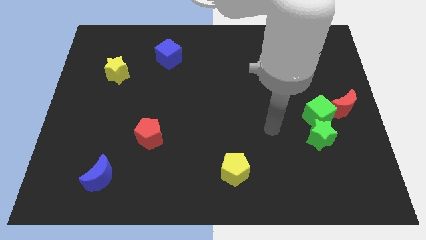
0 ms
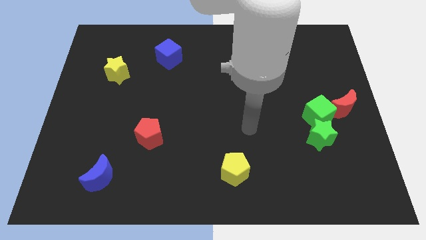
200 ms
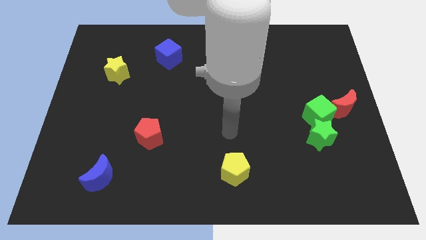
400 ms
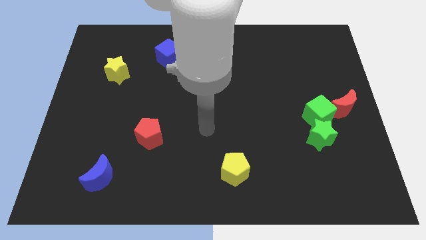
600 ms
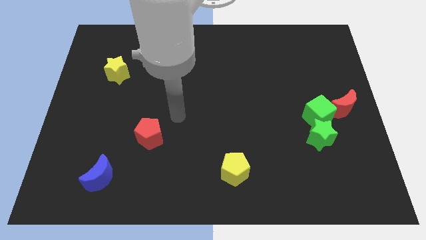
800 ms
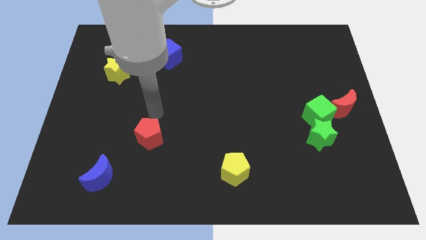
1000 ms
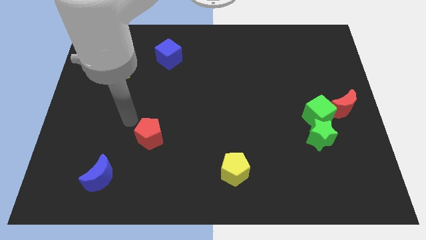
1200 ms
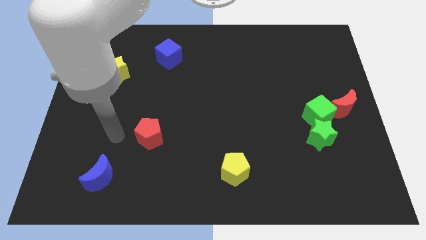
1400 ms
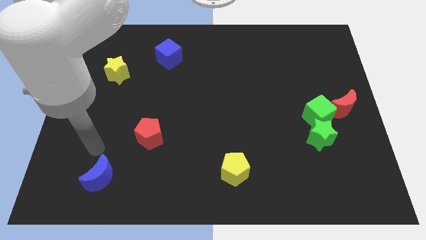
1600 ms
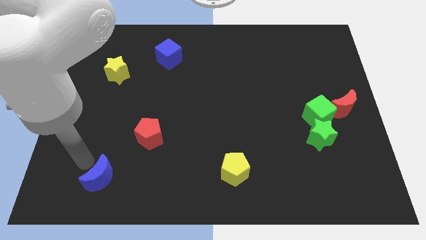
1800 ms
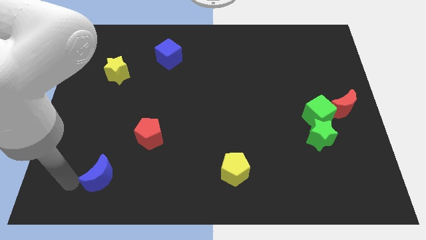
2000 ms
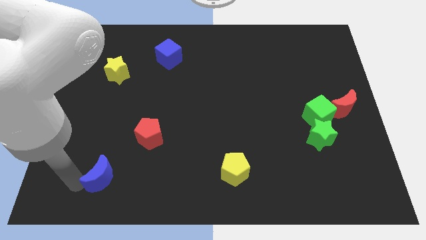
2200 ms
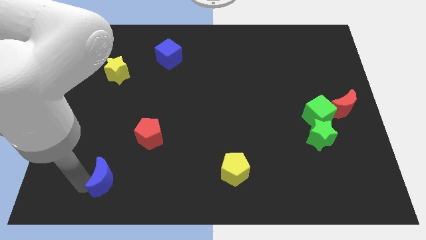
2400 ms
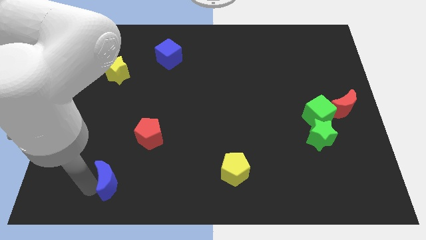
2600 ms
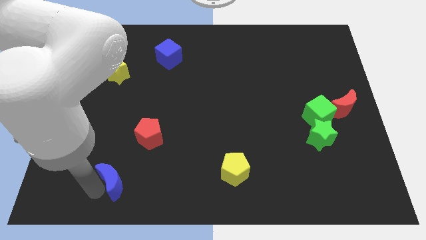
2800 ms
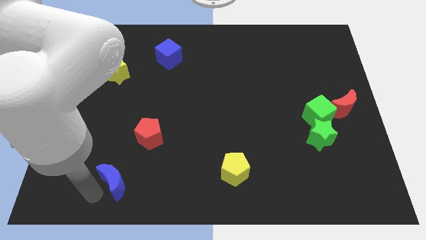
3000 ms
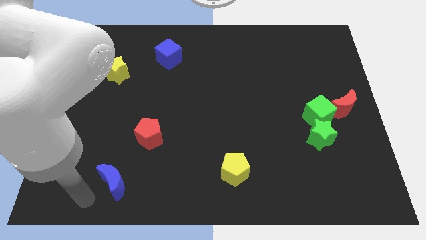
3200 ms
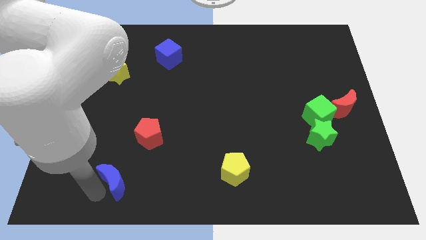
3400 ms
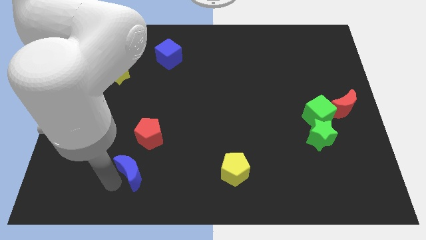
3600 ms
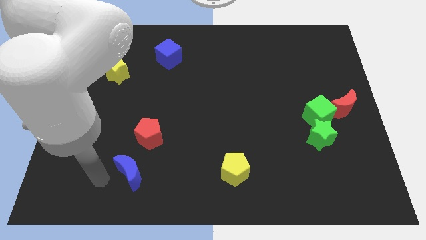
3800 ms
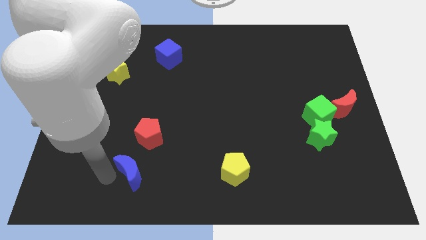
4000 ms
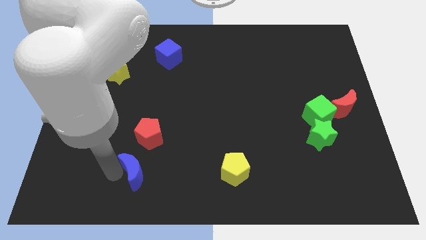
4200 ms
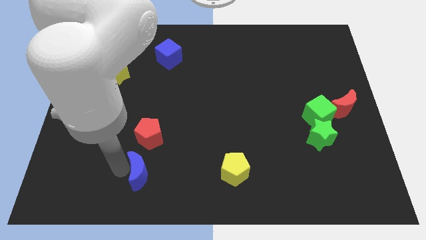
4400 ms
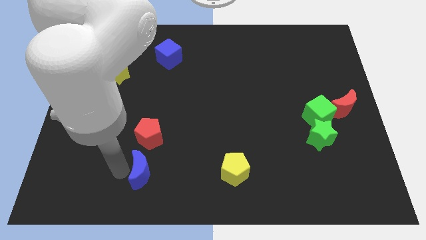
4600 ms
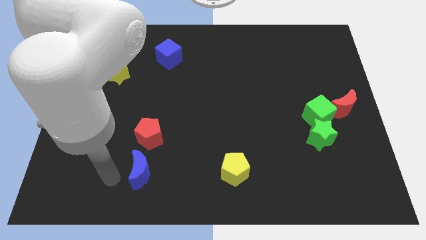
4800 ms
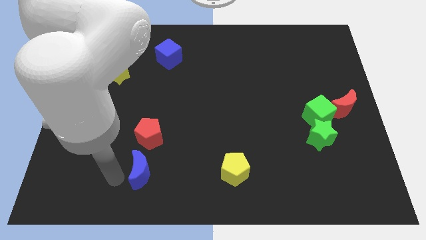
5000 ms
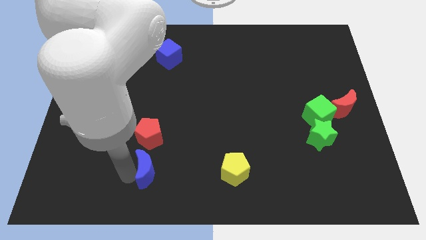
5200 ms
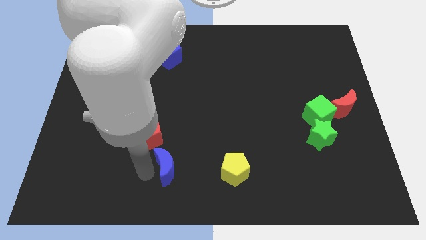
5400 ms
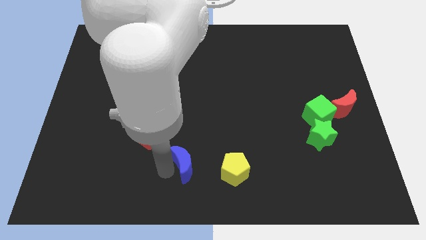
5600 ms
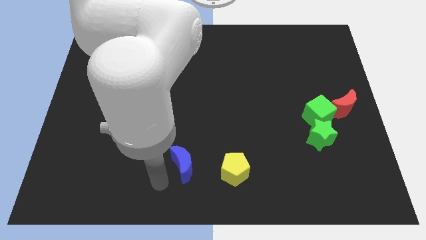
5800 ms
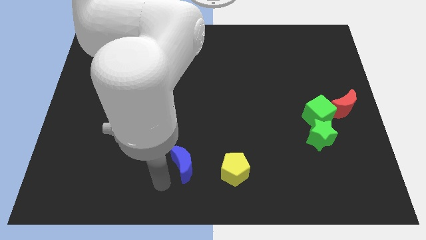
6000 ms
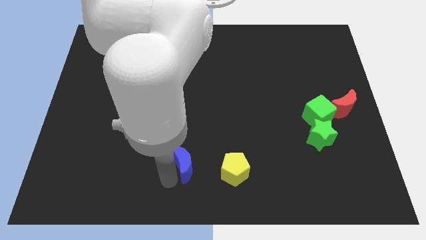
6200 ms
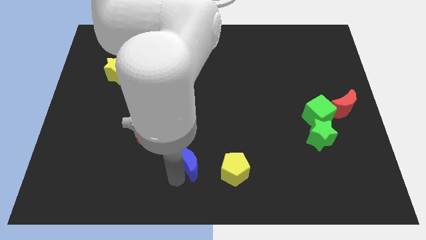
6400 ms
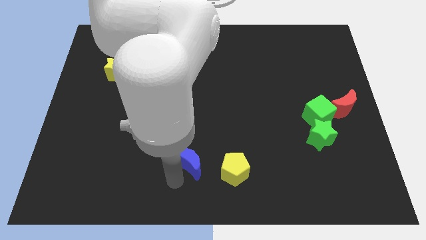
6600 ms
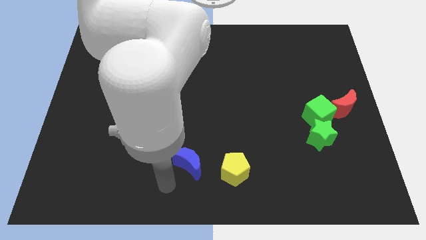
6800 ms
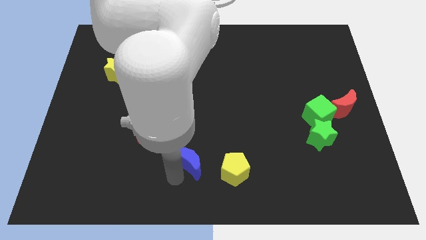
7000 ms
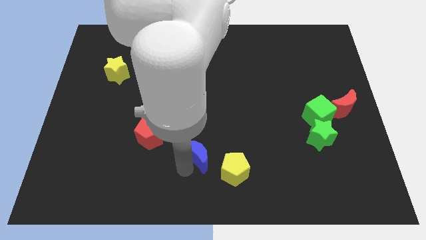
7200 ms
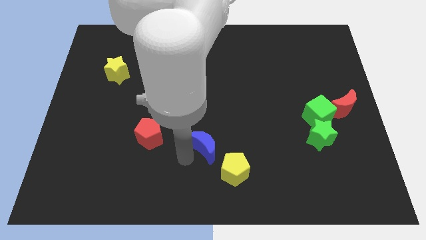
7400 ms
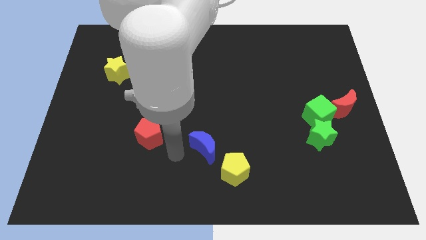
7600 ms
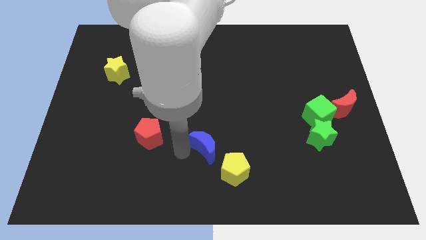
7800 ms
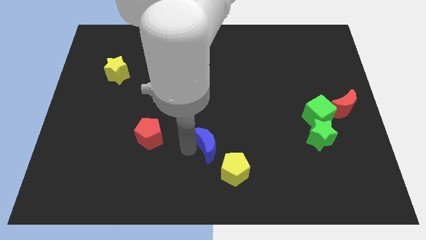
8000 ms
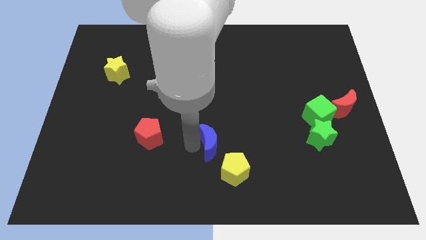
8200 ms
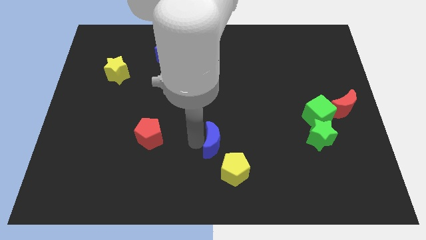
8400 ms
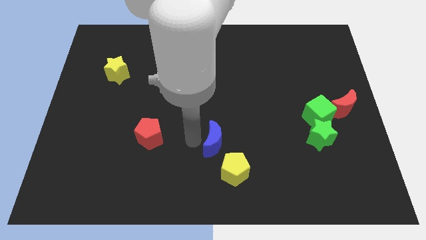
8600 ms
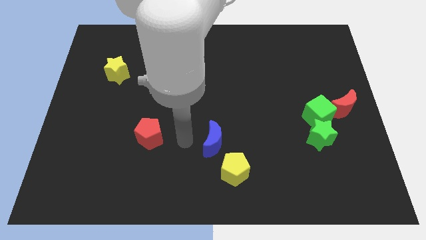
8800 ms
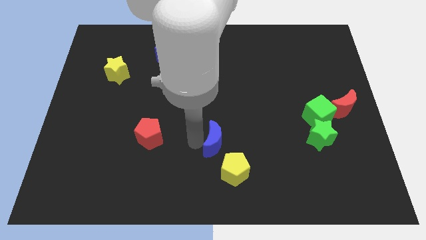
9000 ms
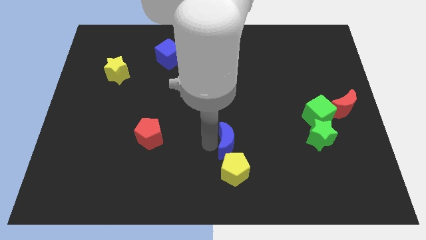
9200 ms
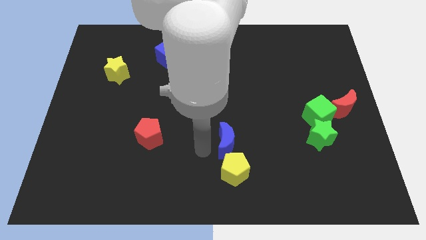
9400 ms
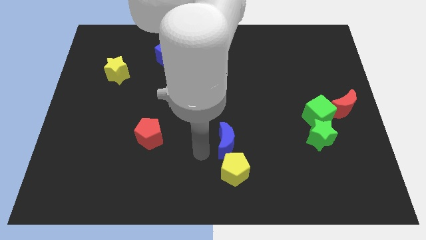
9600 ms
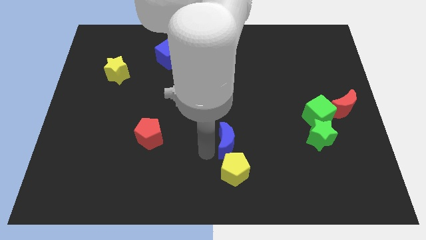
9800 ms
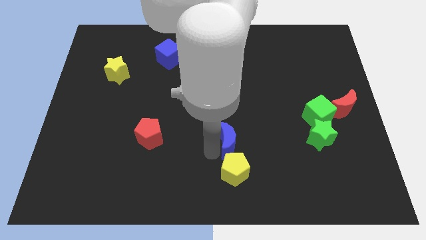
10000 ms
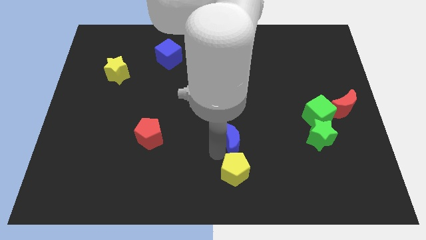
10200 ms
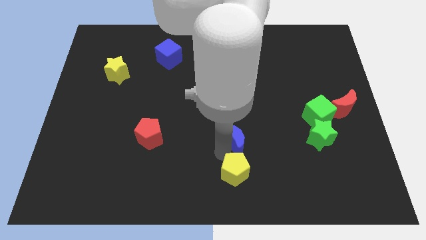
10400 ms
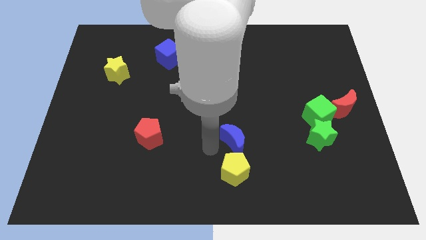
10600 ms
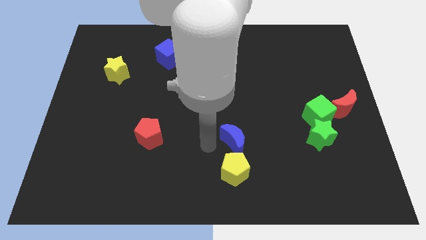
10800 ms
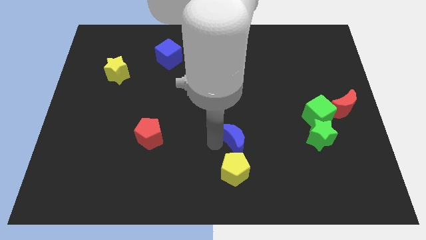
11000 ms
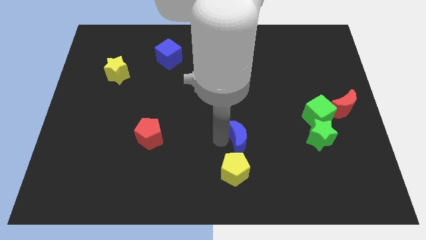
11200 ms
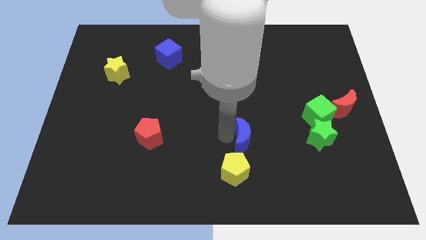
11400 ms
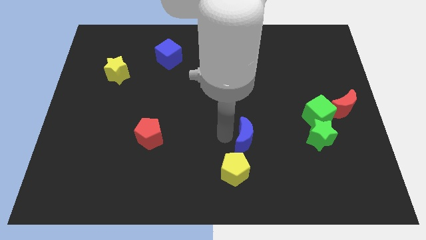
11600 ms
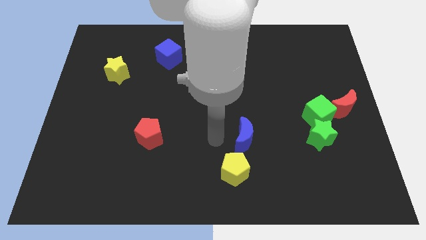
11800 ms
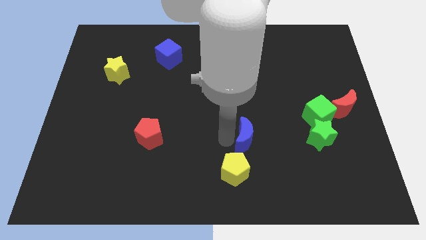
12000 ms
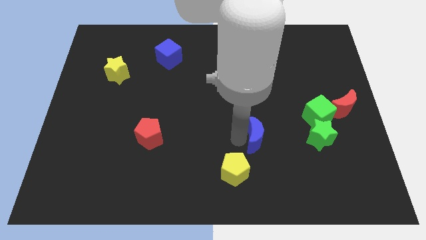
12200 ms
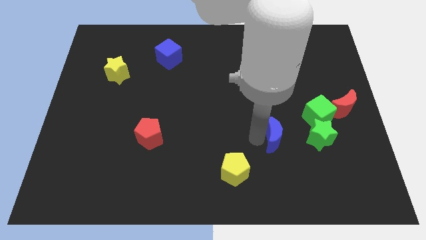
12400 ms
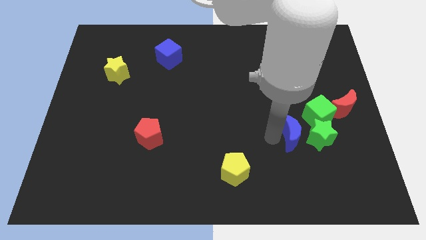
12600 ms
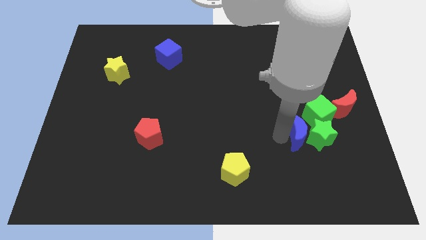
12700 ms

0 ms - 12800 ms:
move the blue moon towards the green star

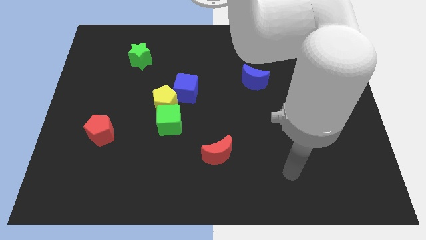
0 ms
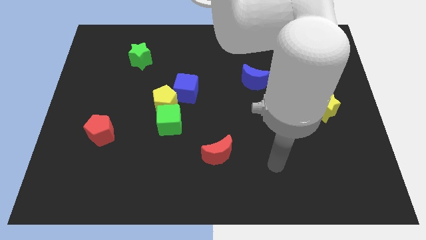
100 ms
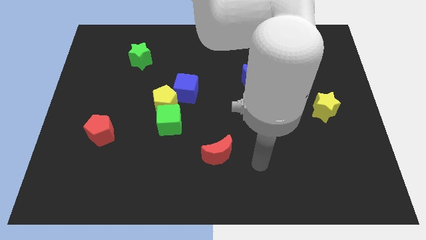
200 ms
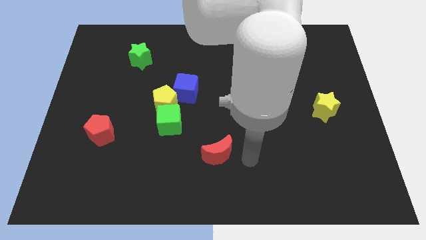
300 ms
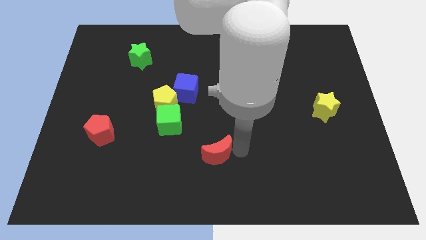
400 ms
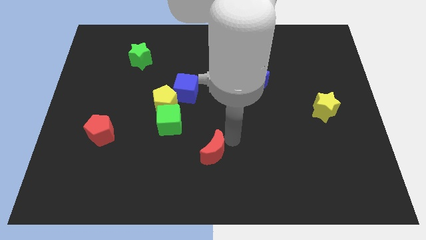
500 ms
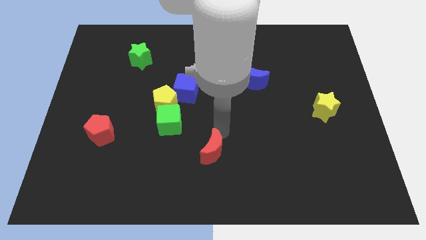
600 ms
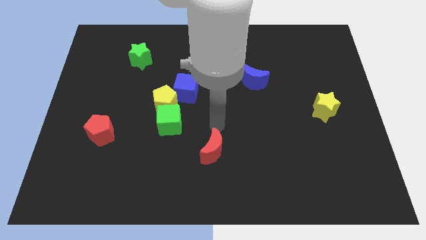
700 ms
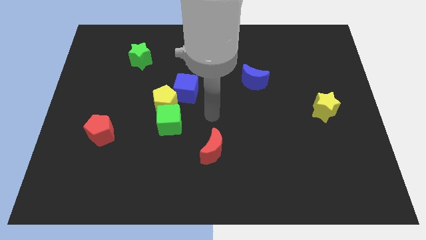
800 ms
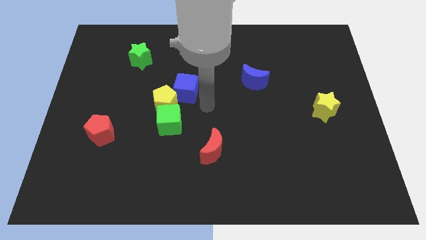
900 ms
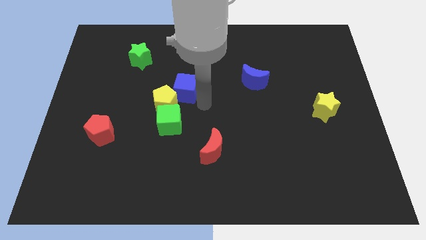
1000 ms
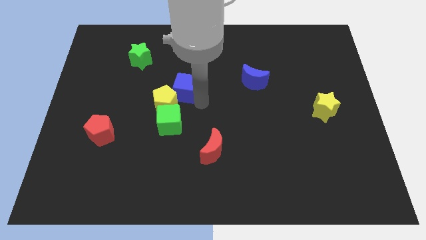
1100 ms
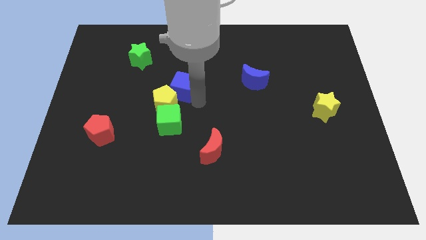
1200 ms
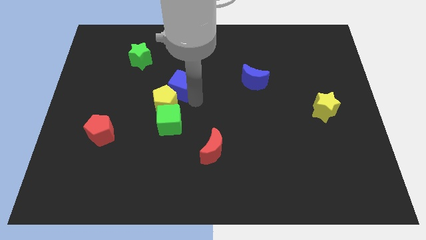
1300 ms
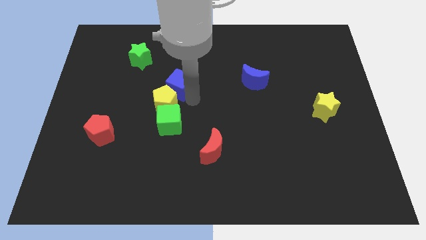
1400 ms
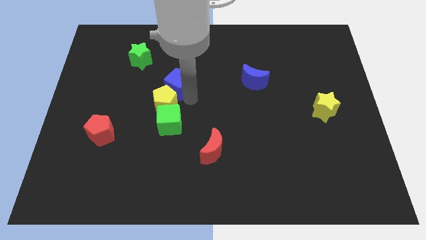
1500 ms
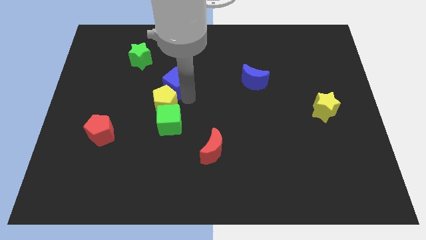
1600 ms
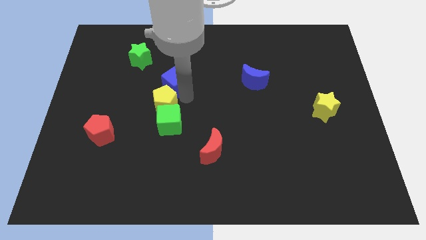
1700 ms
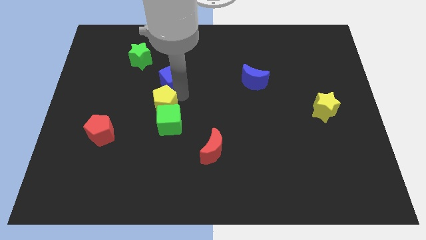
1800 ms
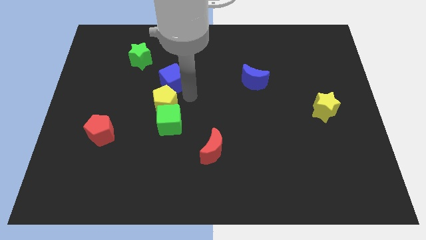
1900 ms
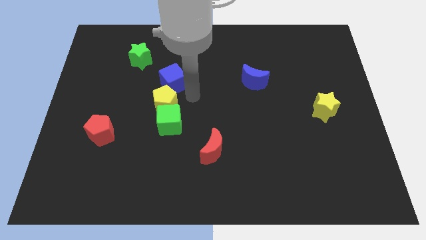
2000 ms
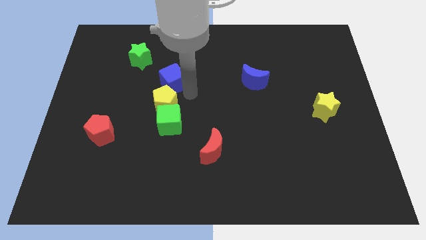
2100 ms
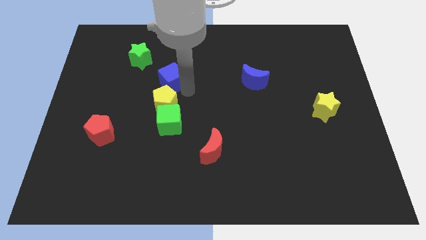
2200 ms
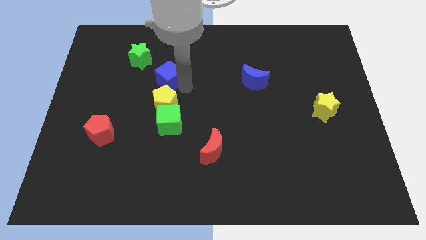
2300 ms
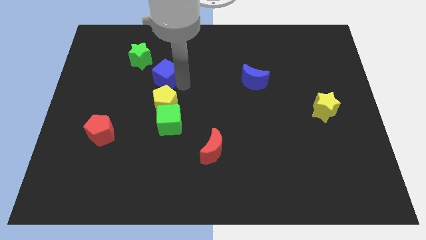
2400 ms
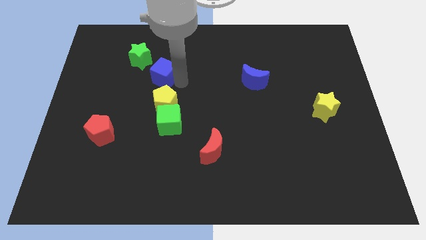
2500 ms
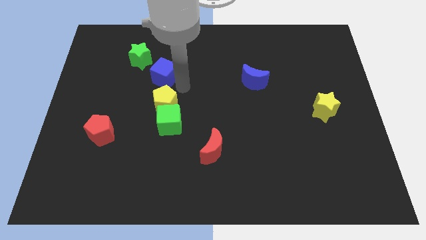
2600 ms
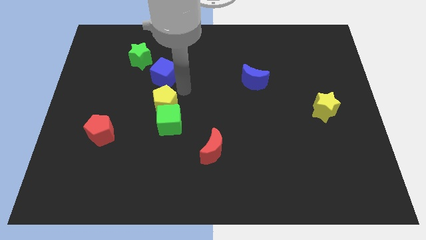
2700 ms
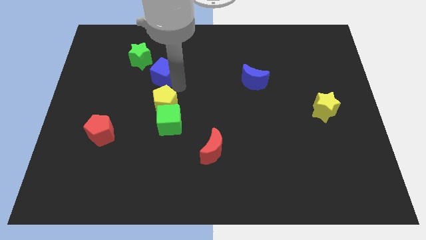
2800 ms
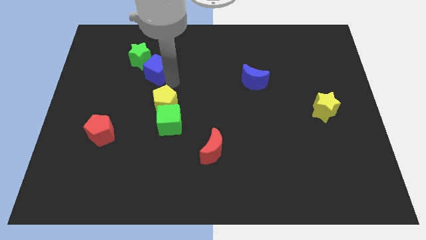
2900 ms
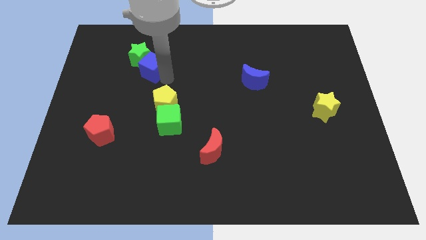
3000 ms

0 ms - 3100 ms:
slide the blue cube towards the green star
